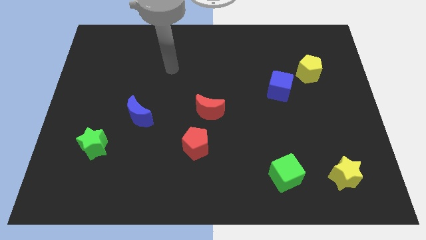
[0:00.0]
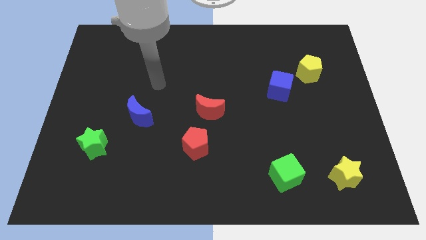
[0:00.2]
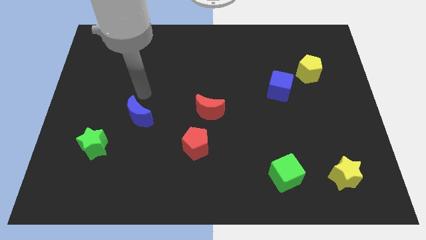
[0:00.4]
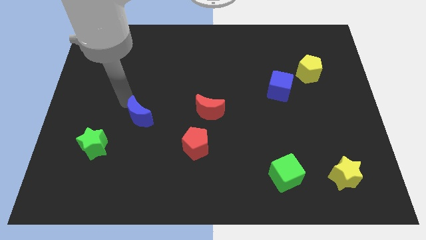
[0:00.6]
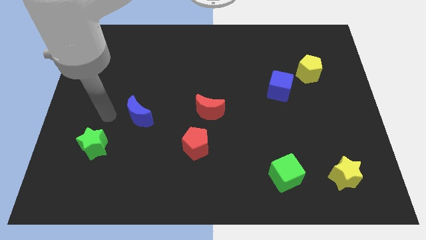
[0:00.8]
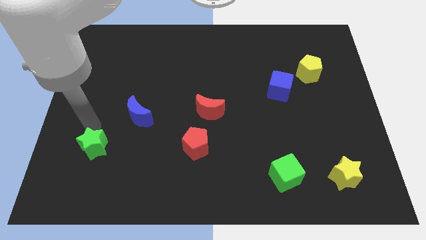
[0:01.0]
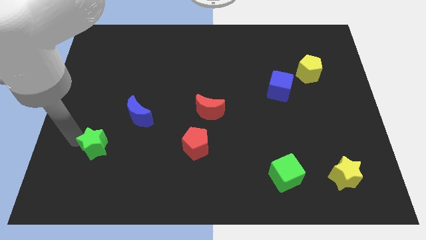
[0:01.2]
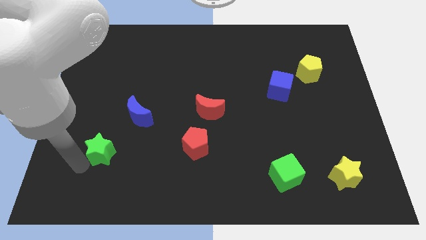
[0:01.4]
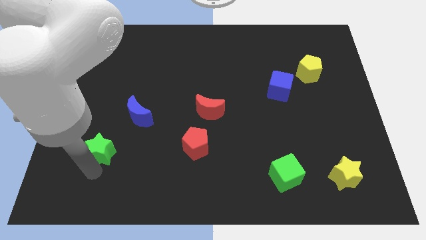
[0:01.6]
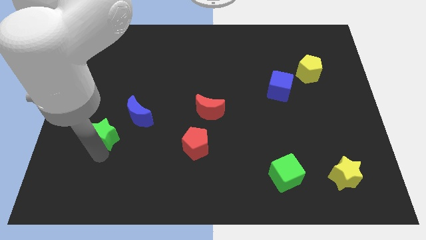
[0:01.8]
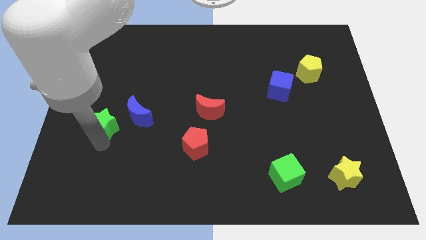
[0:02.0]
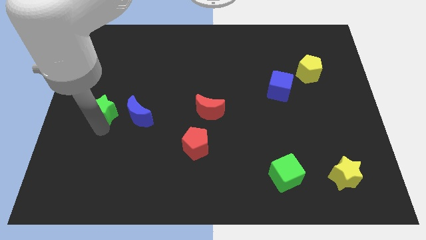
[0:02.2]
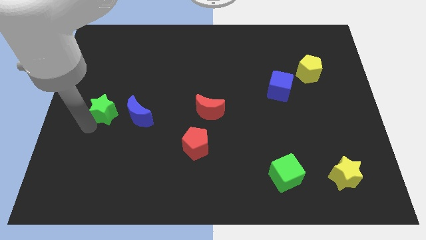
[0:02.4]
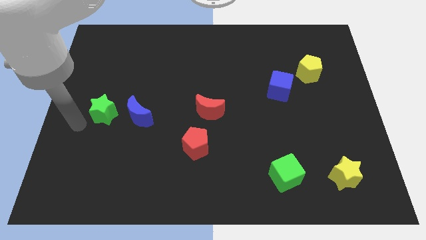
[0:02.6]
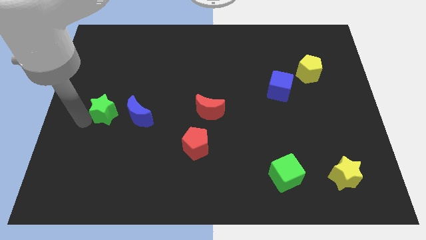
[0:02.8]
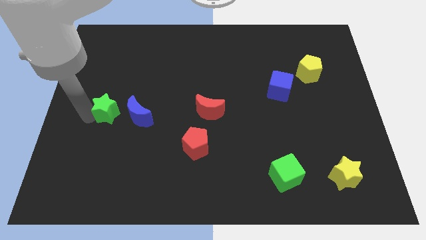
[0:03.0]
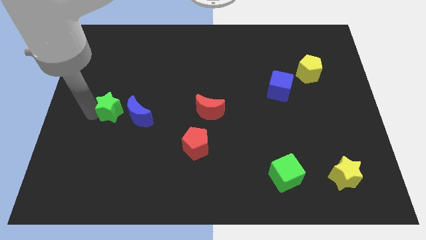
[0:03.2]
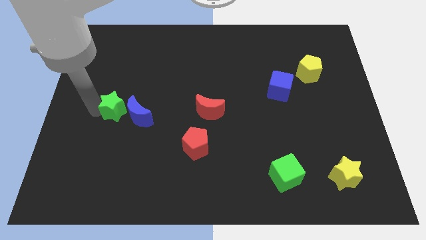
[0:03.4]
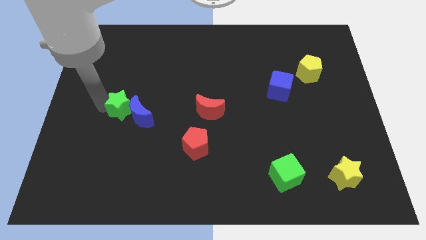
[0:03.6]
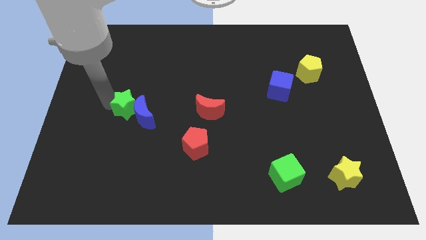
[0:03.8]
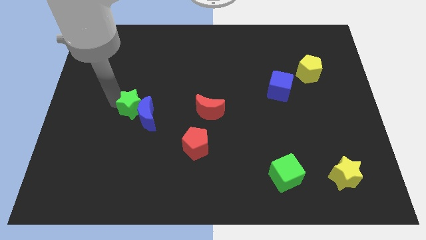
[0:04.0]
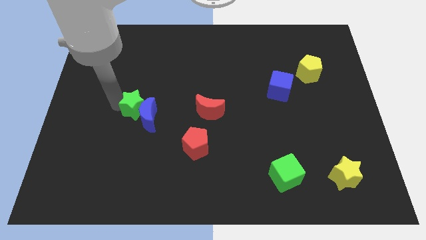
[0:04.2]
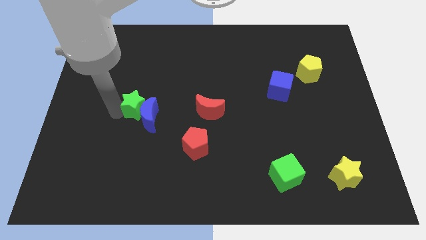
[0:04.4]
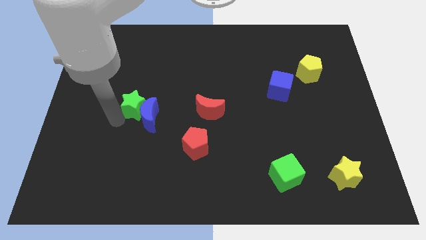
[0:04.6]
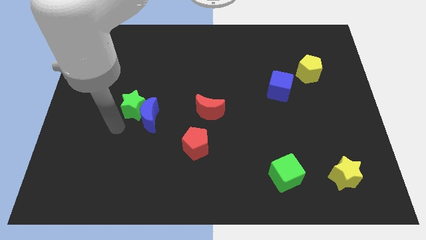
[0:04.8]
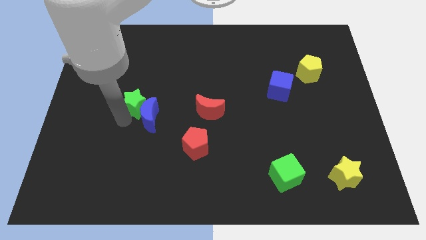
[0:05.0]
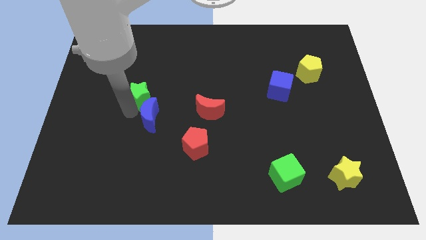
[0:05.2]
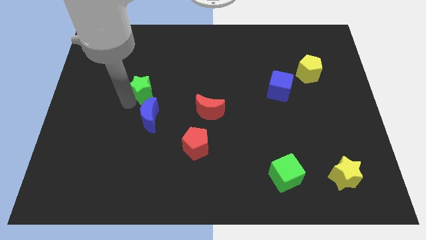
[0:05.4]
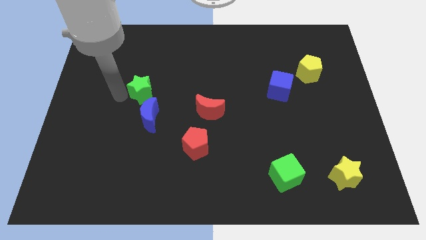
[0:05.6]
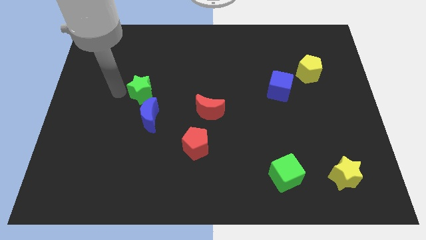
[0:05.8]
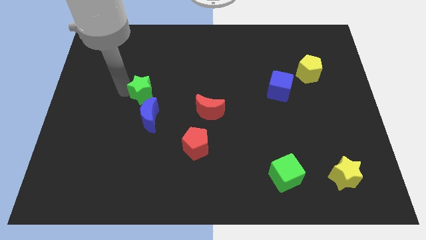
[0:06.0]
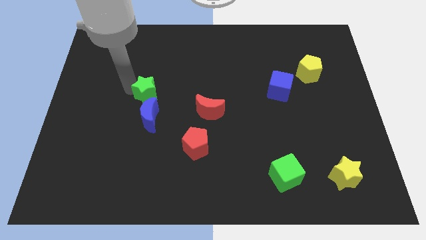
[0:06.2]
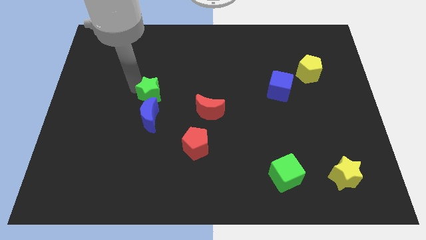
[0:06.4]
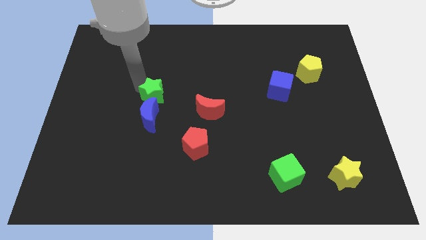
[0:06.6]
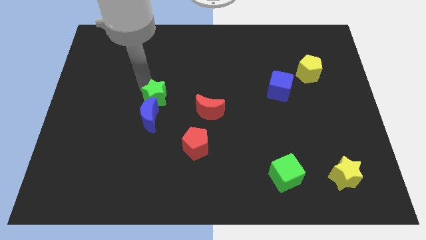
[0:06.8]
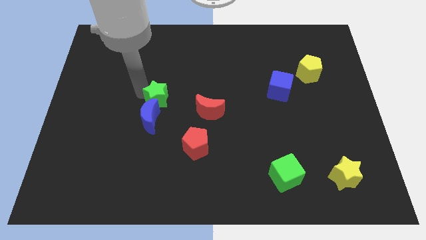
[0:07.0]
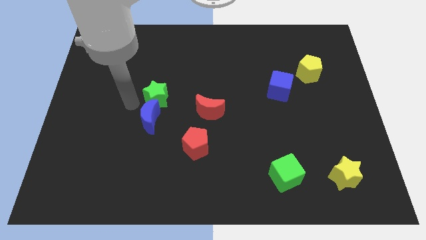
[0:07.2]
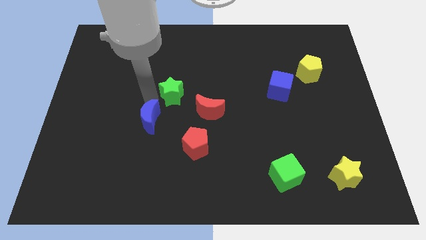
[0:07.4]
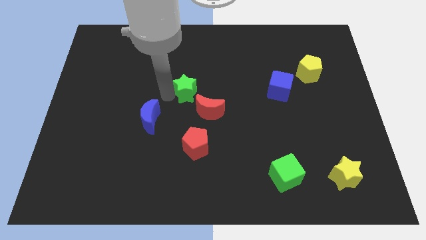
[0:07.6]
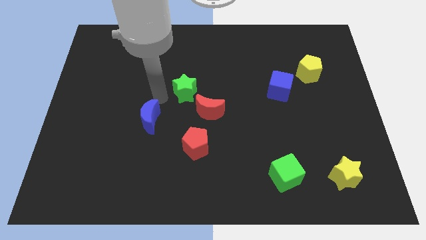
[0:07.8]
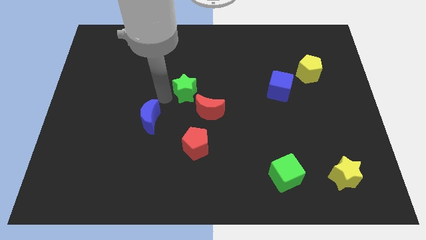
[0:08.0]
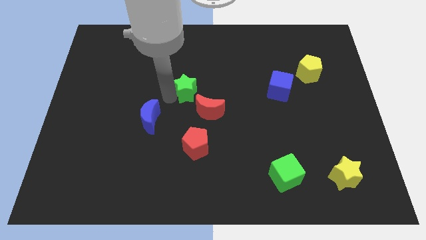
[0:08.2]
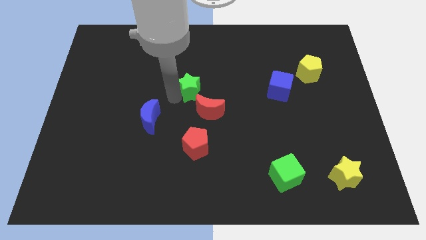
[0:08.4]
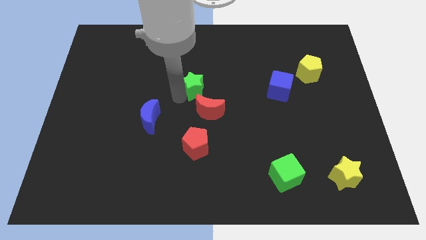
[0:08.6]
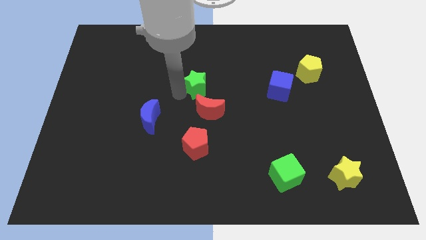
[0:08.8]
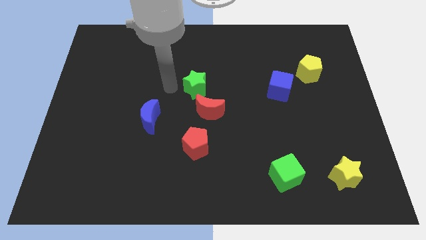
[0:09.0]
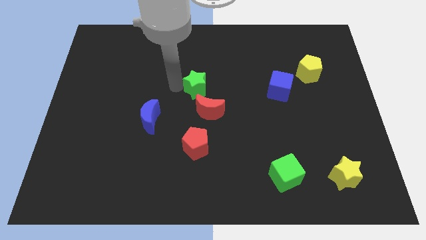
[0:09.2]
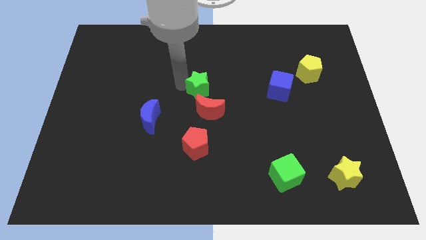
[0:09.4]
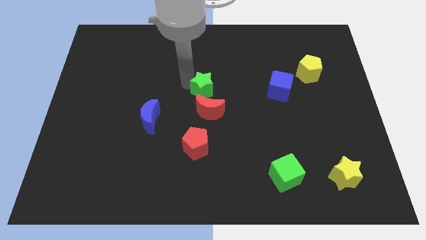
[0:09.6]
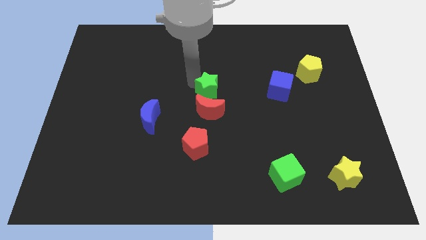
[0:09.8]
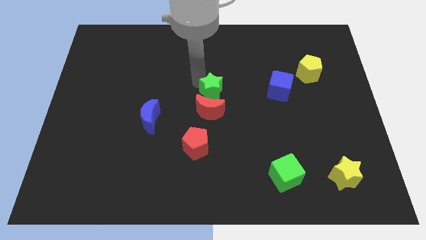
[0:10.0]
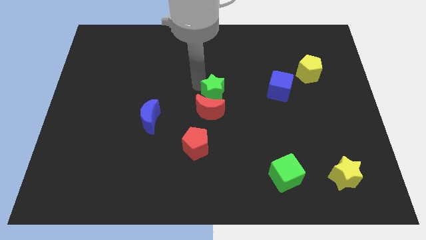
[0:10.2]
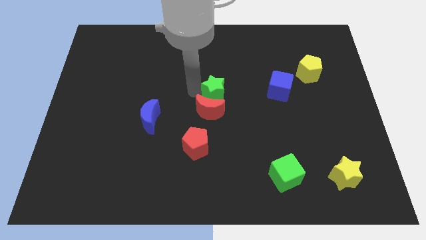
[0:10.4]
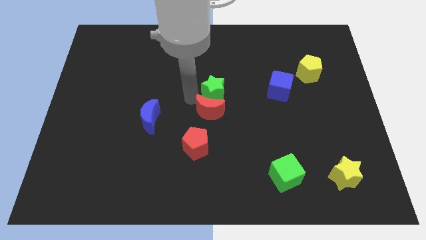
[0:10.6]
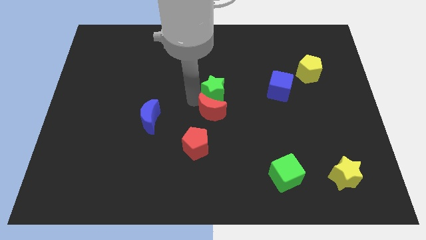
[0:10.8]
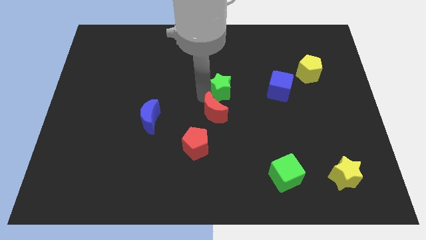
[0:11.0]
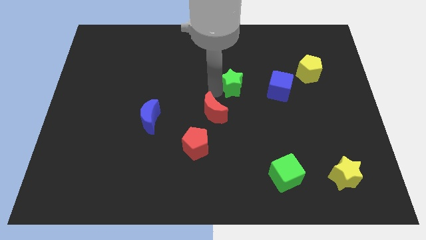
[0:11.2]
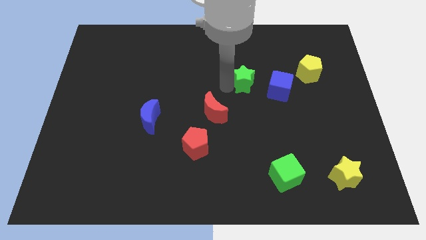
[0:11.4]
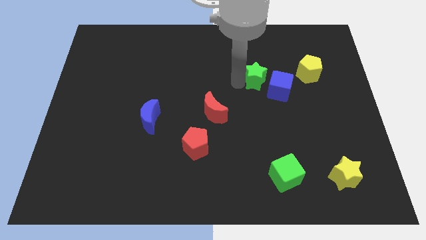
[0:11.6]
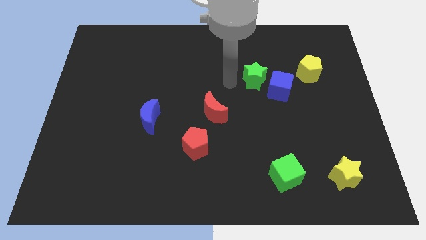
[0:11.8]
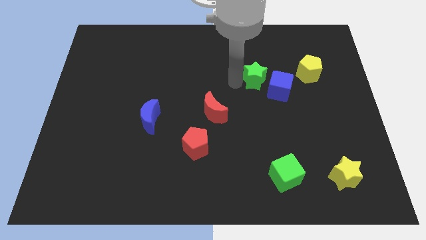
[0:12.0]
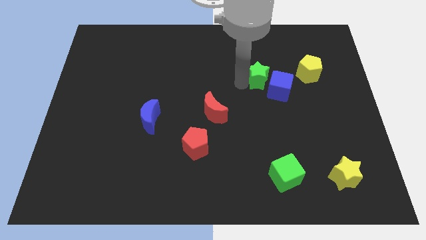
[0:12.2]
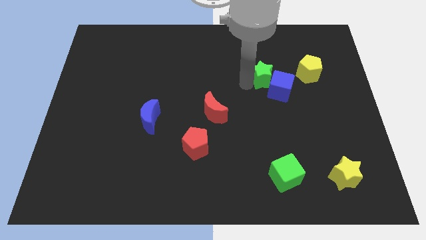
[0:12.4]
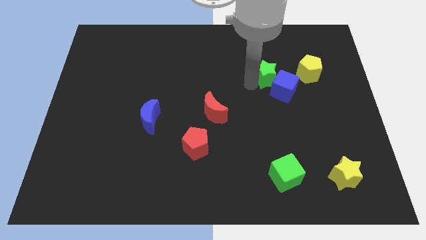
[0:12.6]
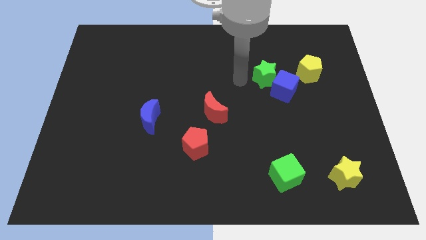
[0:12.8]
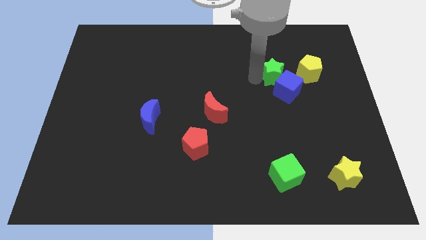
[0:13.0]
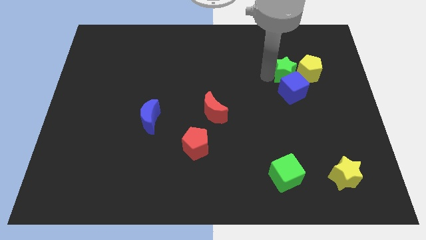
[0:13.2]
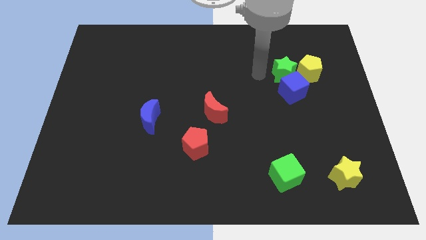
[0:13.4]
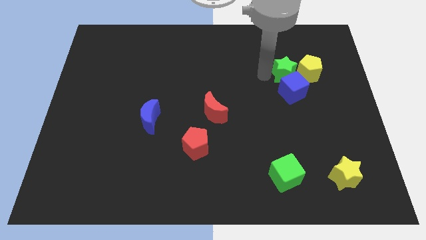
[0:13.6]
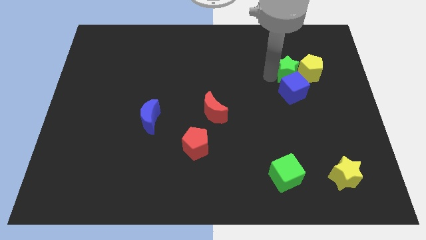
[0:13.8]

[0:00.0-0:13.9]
slide the green star to the yellow pentagon
